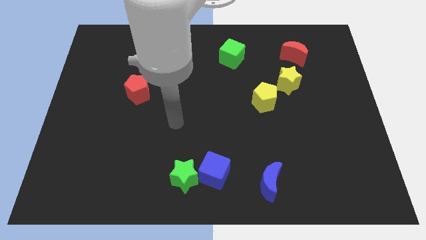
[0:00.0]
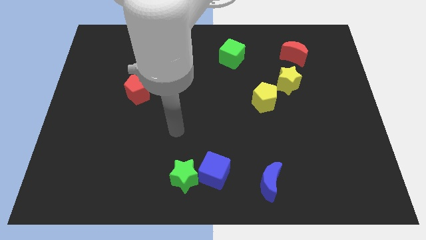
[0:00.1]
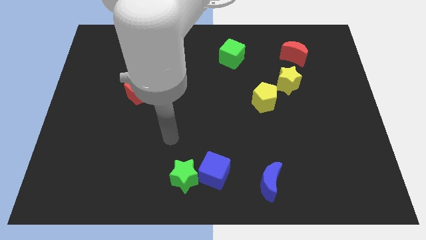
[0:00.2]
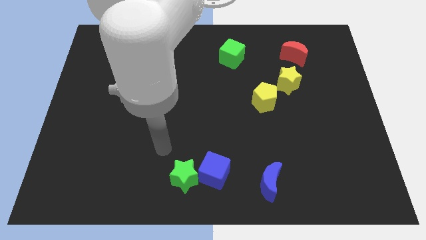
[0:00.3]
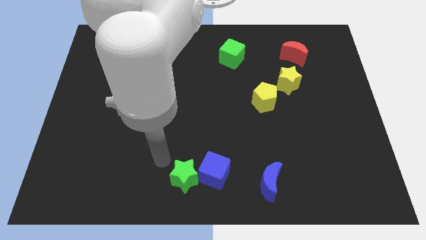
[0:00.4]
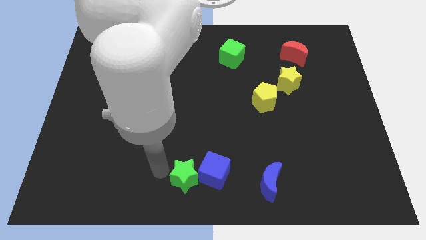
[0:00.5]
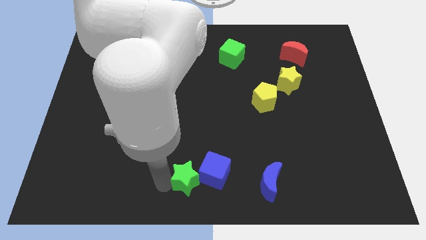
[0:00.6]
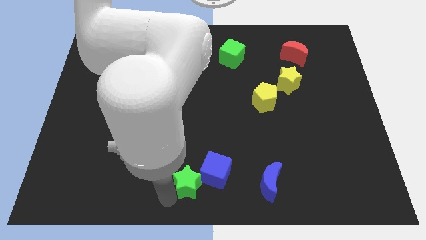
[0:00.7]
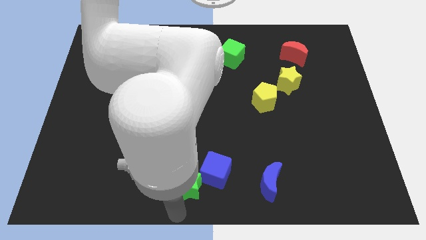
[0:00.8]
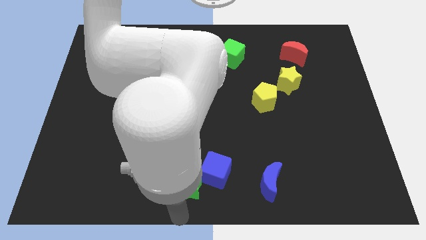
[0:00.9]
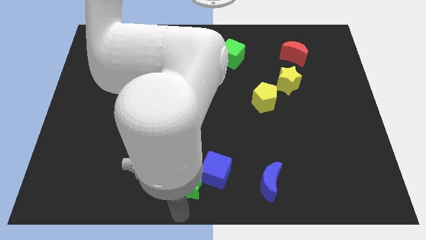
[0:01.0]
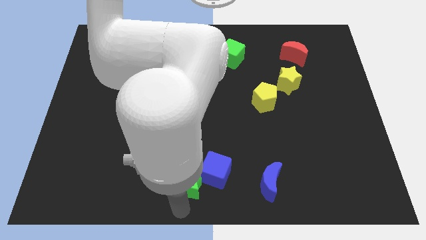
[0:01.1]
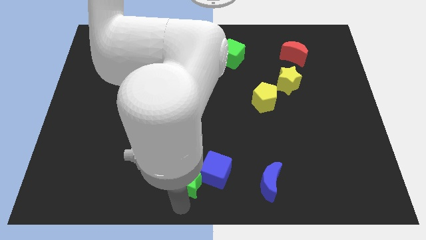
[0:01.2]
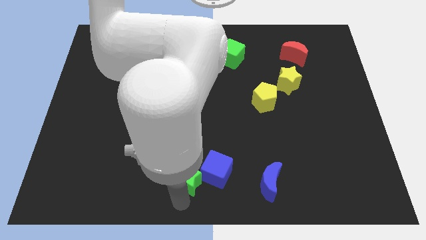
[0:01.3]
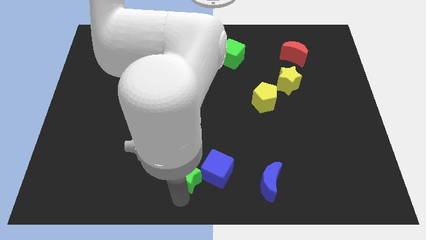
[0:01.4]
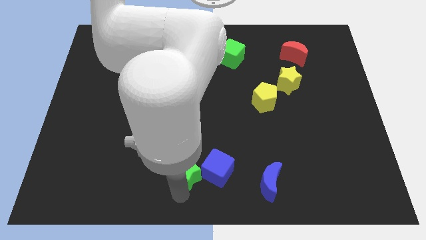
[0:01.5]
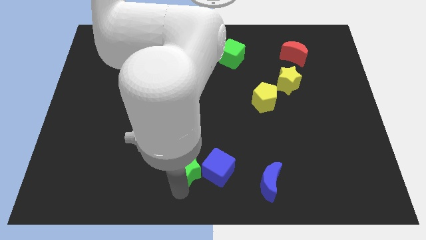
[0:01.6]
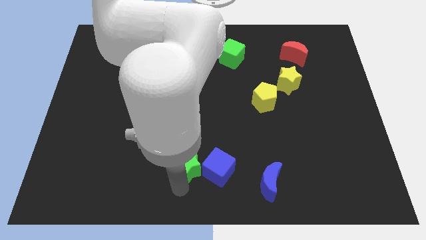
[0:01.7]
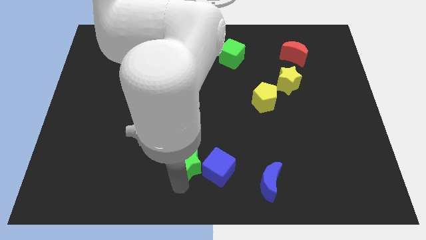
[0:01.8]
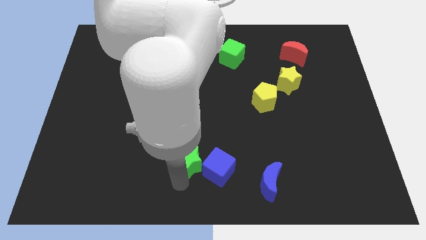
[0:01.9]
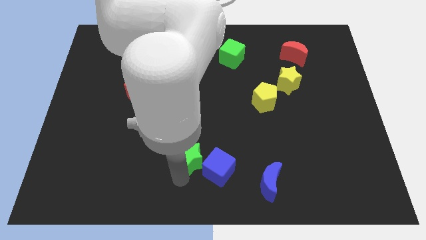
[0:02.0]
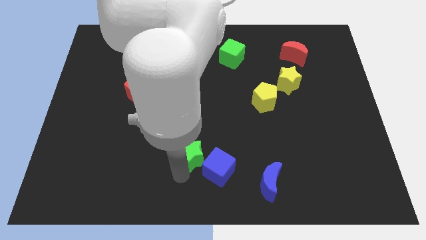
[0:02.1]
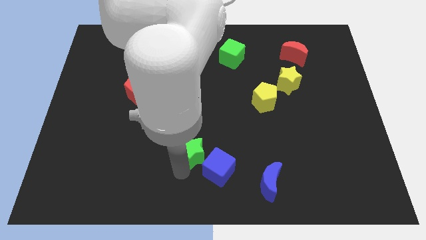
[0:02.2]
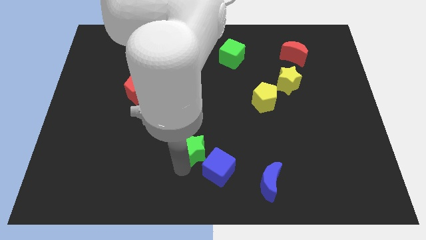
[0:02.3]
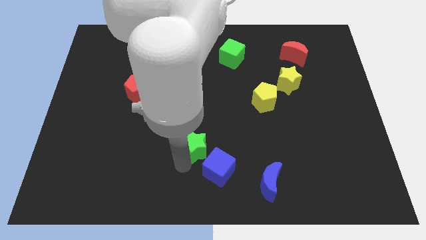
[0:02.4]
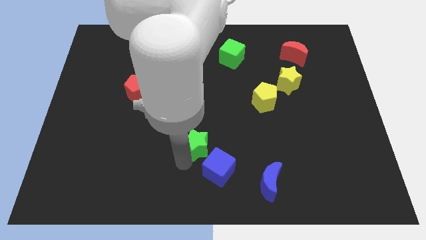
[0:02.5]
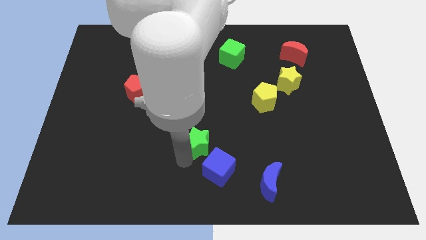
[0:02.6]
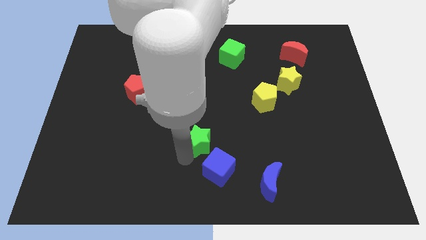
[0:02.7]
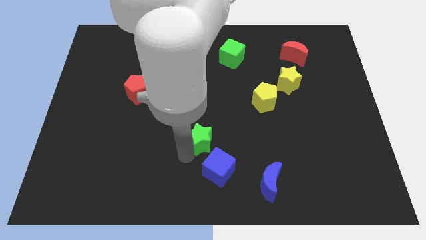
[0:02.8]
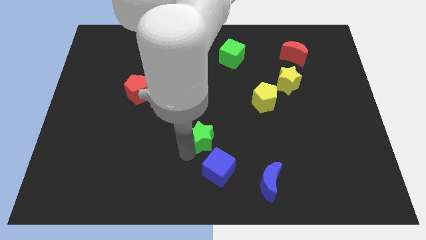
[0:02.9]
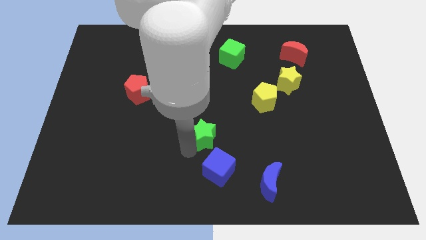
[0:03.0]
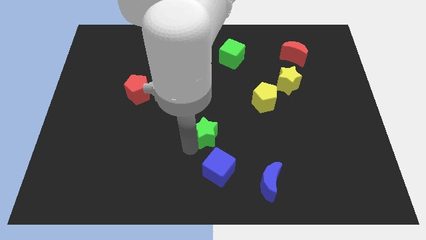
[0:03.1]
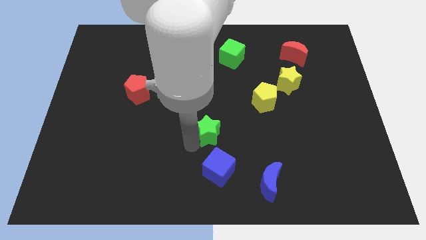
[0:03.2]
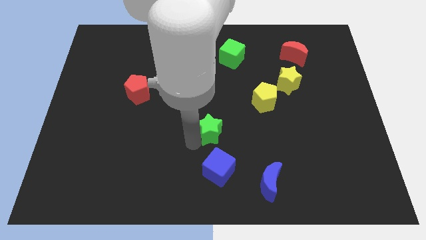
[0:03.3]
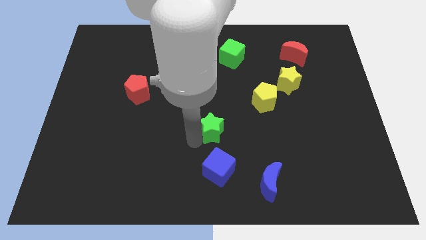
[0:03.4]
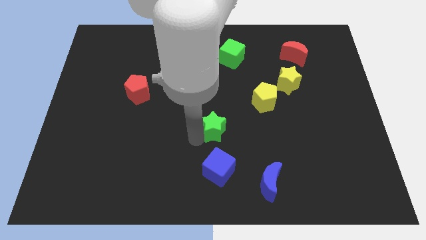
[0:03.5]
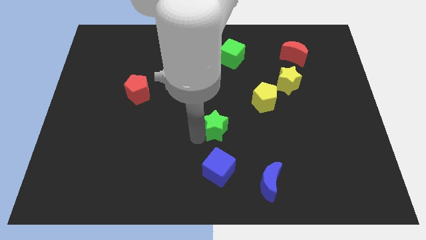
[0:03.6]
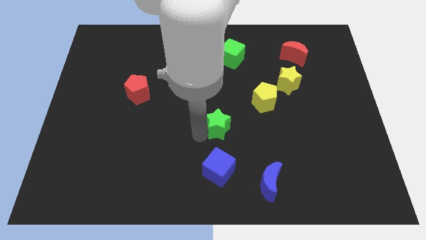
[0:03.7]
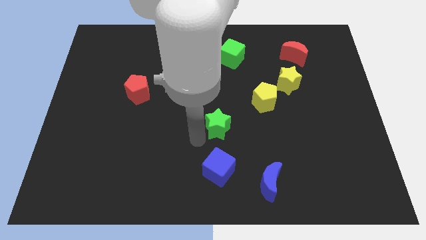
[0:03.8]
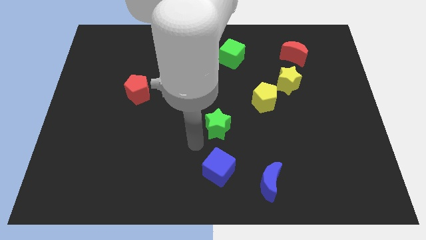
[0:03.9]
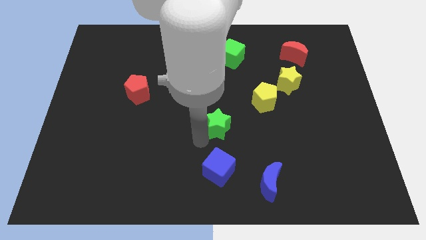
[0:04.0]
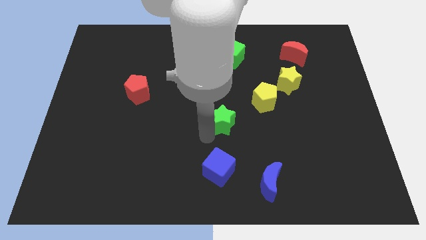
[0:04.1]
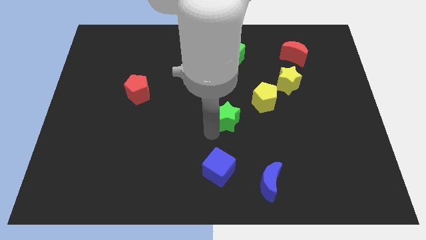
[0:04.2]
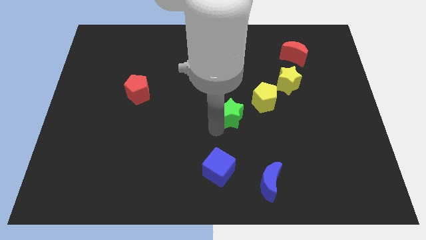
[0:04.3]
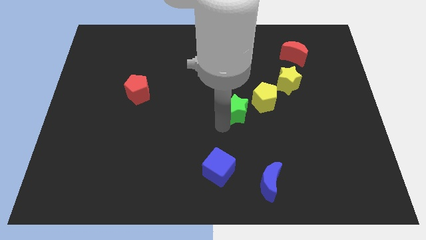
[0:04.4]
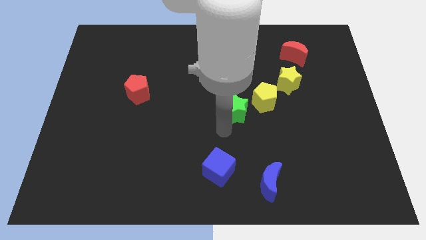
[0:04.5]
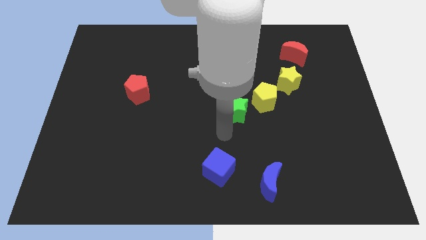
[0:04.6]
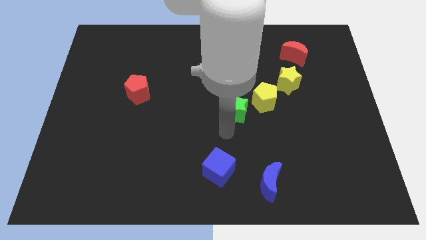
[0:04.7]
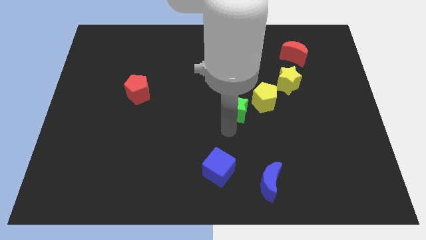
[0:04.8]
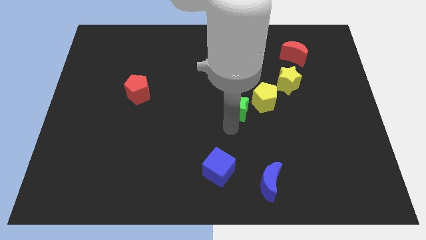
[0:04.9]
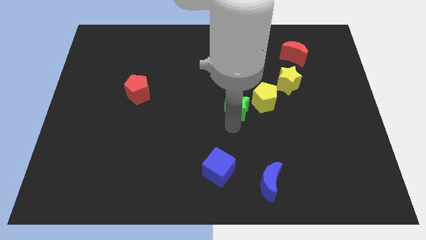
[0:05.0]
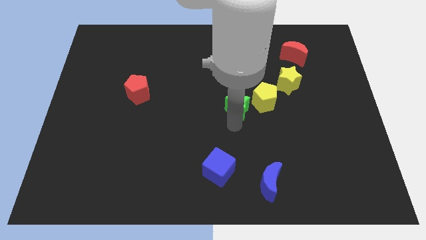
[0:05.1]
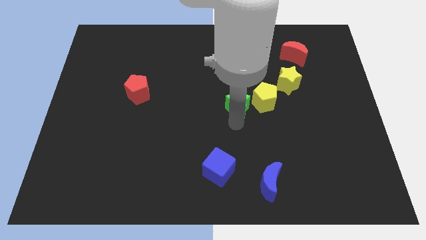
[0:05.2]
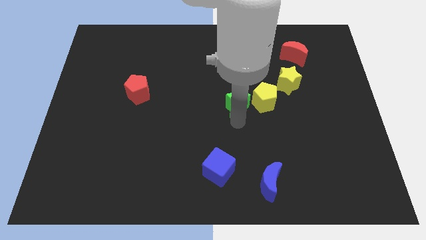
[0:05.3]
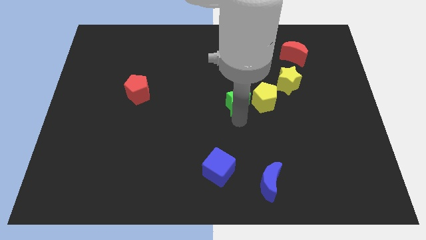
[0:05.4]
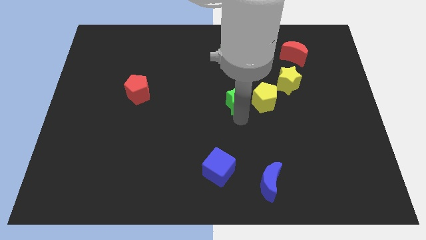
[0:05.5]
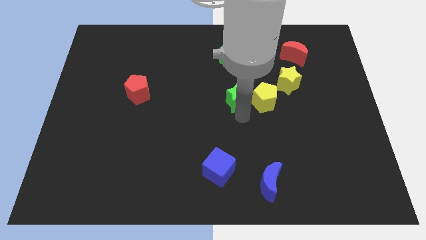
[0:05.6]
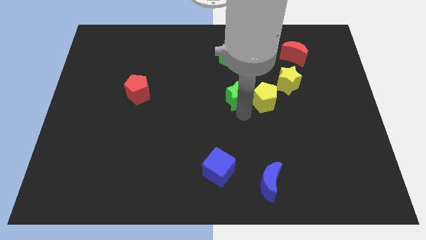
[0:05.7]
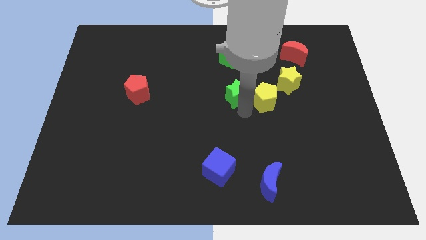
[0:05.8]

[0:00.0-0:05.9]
put the green star left of the yellow star

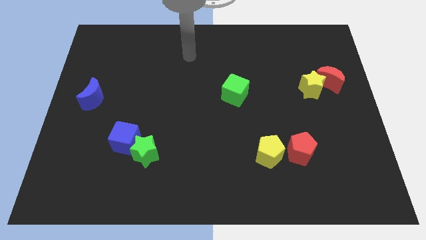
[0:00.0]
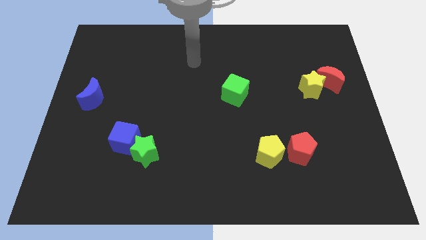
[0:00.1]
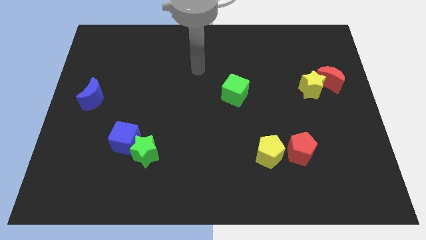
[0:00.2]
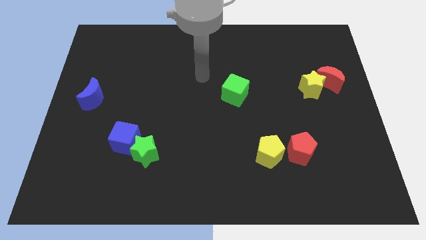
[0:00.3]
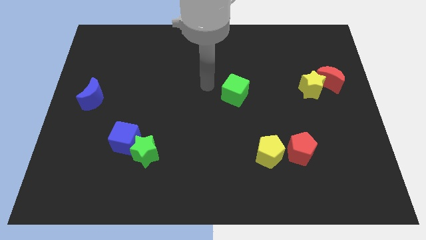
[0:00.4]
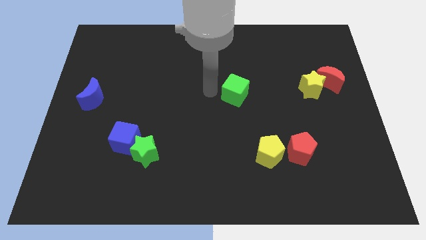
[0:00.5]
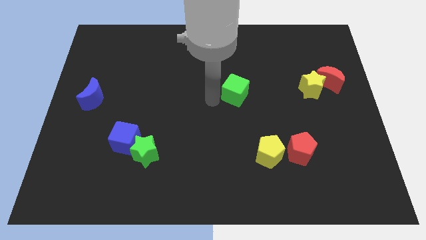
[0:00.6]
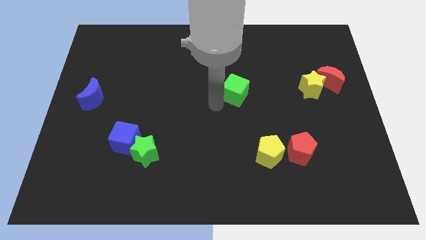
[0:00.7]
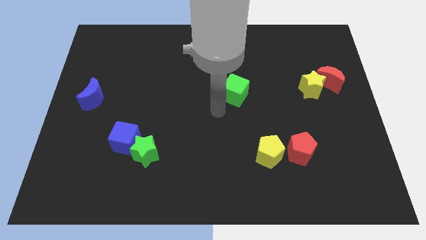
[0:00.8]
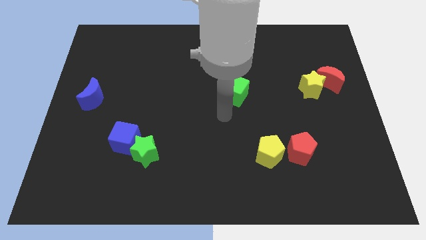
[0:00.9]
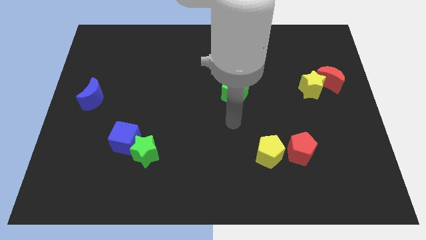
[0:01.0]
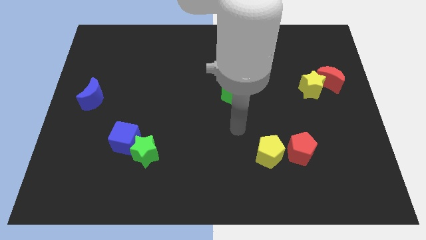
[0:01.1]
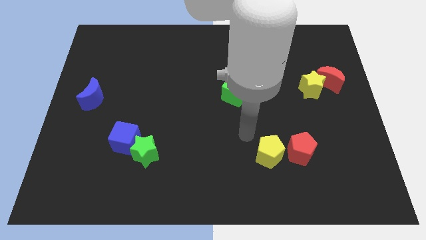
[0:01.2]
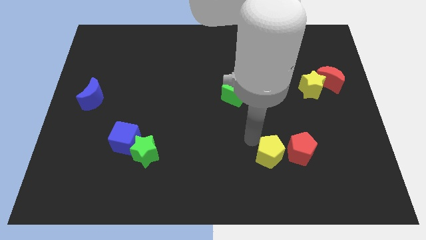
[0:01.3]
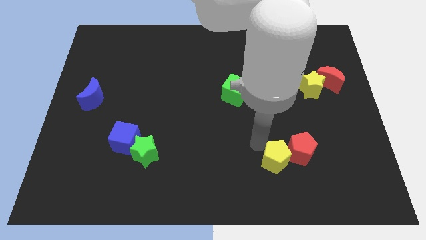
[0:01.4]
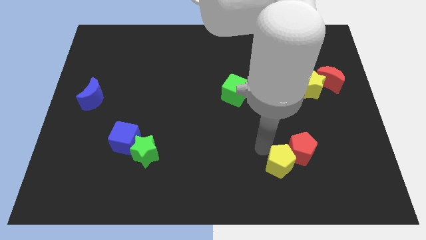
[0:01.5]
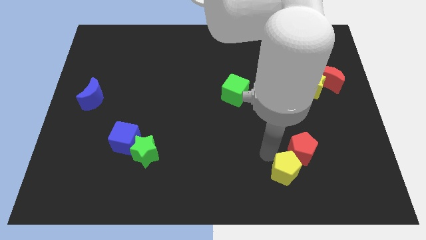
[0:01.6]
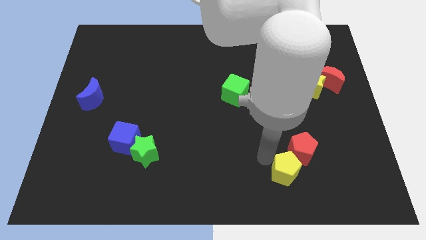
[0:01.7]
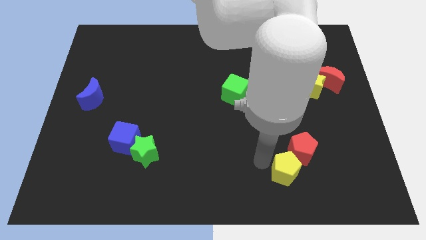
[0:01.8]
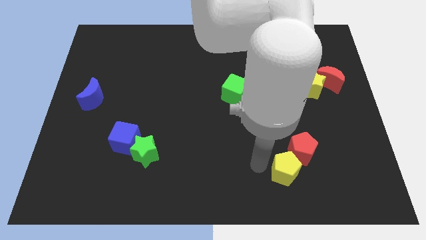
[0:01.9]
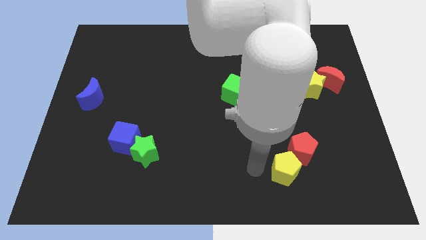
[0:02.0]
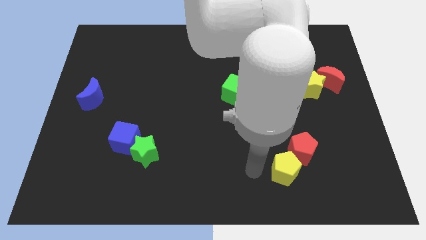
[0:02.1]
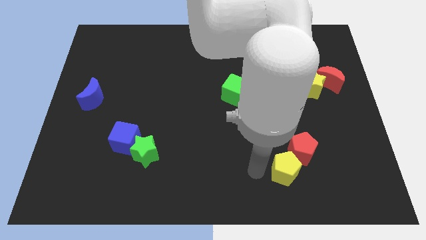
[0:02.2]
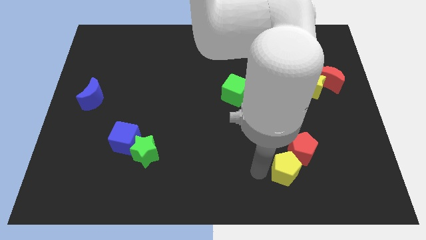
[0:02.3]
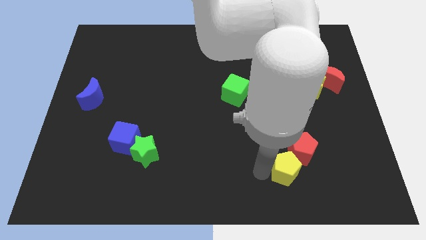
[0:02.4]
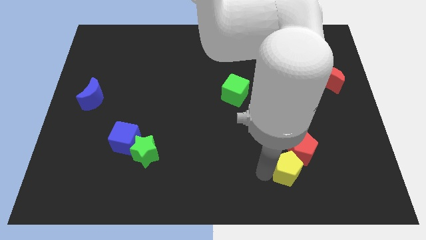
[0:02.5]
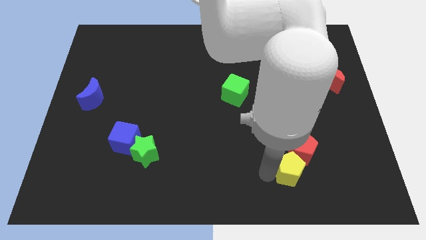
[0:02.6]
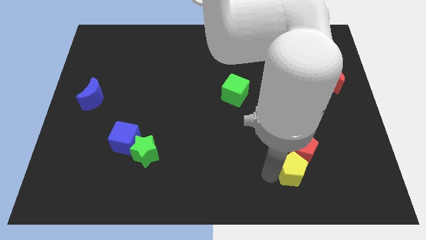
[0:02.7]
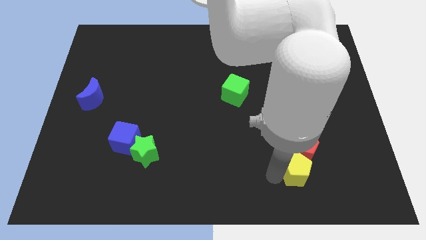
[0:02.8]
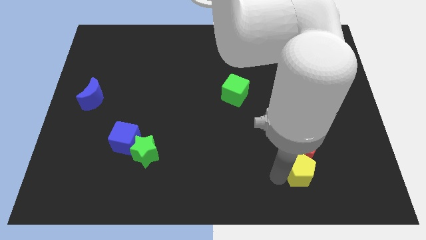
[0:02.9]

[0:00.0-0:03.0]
move the yellow pentagon diagonally down and to the right of the red pentagon
